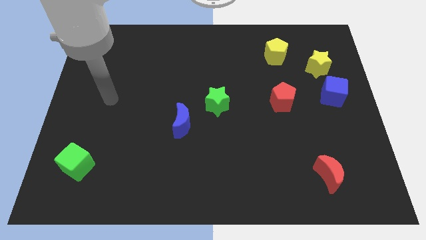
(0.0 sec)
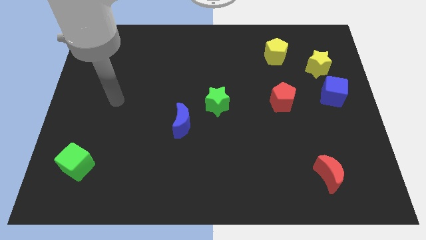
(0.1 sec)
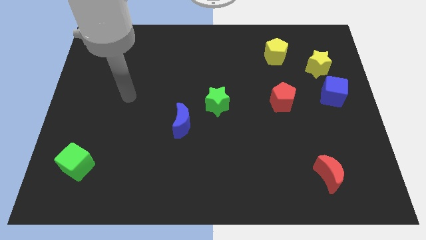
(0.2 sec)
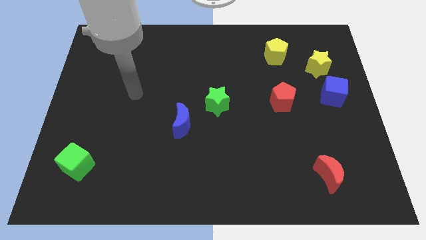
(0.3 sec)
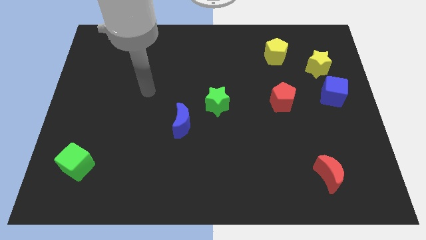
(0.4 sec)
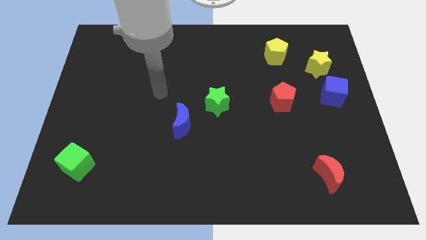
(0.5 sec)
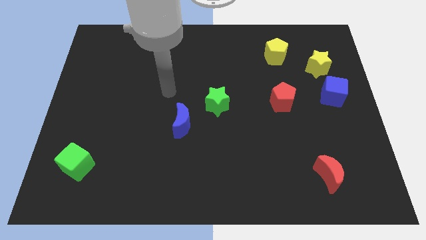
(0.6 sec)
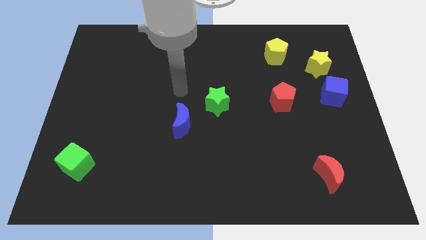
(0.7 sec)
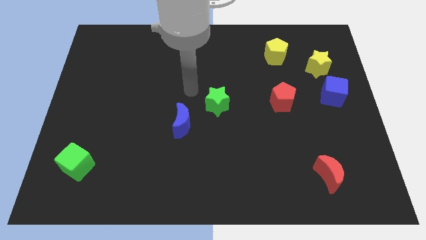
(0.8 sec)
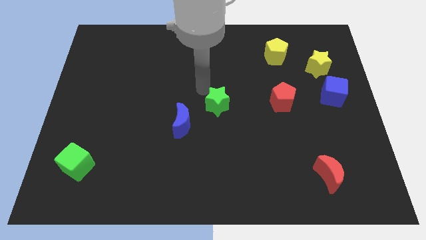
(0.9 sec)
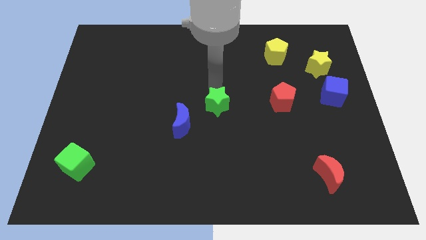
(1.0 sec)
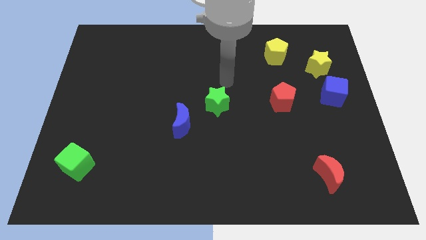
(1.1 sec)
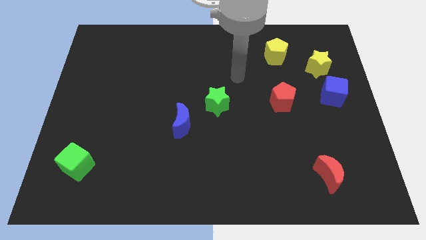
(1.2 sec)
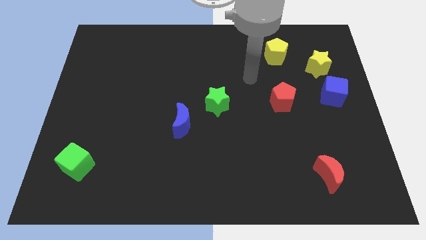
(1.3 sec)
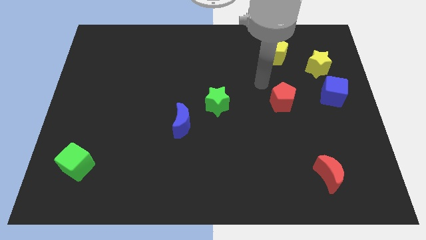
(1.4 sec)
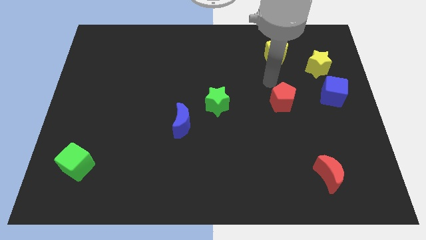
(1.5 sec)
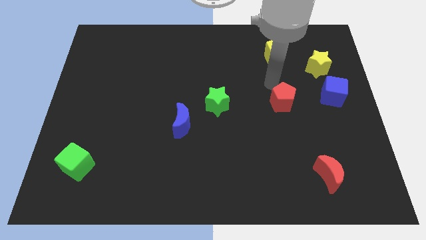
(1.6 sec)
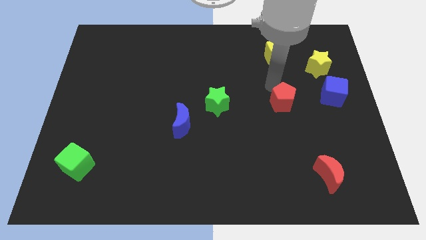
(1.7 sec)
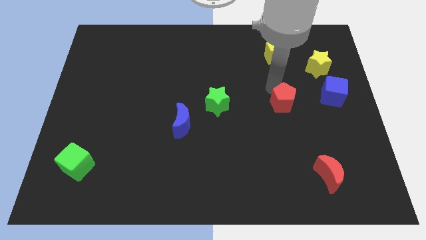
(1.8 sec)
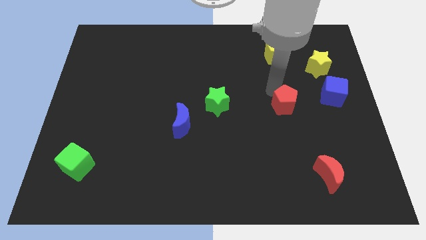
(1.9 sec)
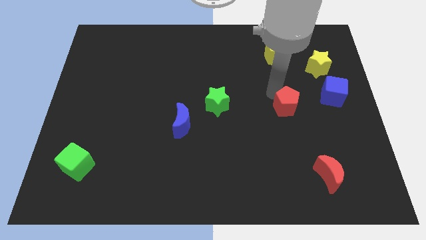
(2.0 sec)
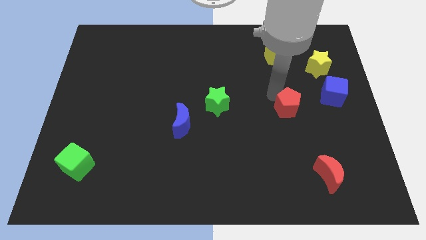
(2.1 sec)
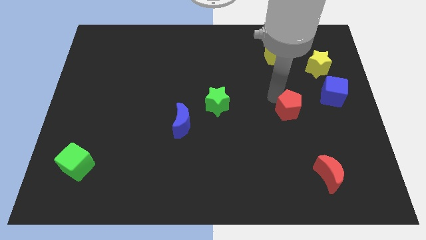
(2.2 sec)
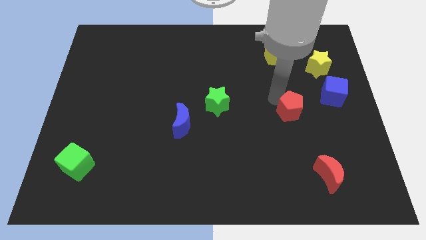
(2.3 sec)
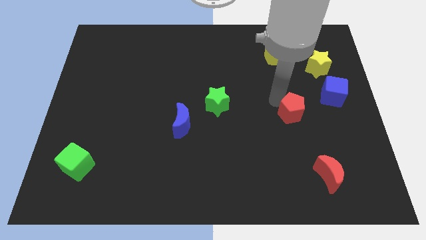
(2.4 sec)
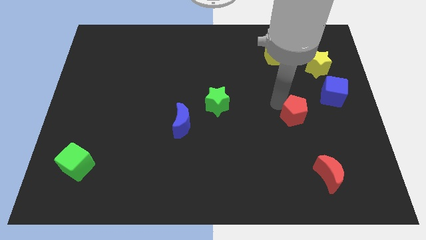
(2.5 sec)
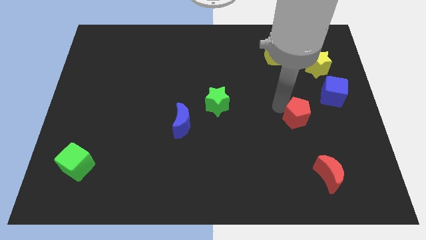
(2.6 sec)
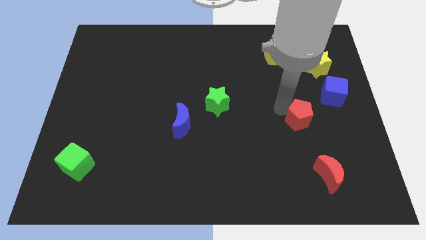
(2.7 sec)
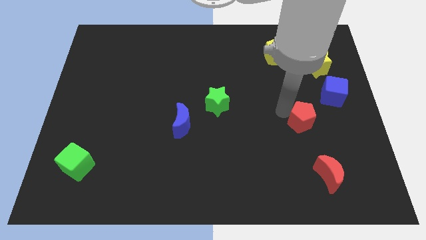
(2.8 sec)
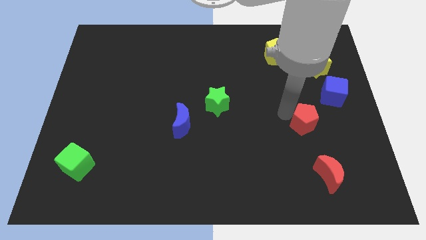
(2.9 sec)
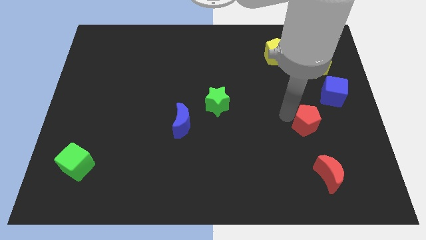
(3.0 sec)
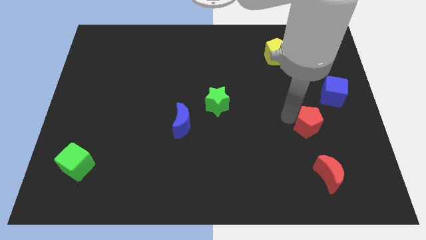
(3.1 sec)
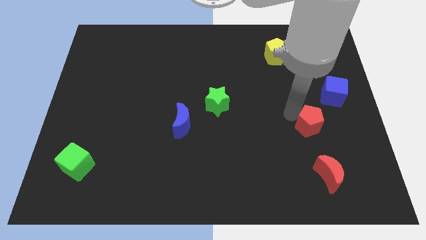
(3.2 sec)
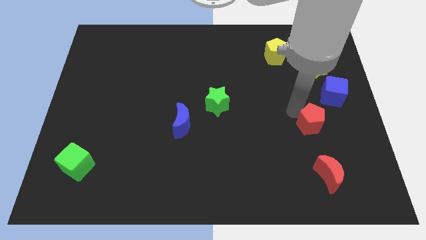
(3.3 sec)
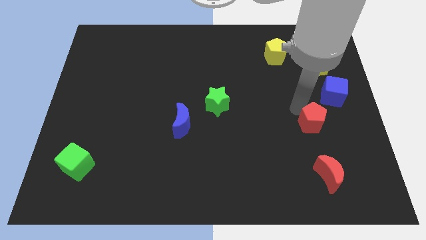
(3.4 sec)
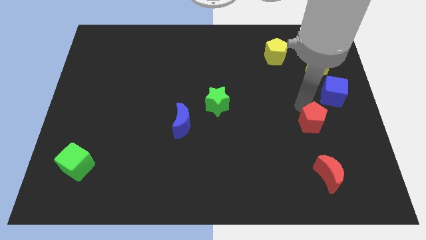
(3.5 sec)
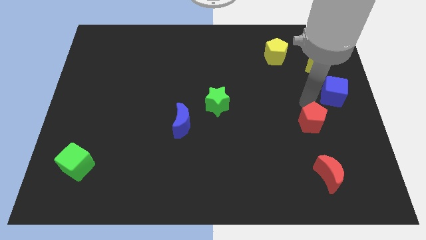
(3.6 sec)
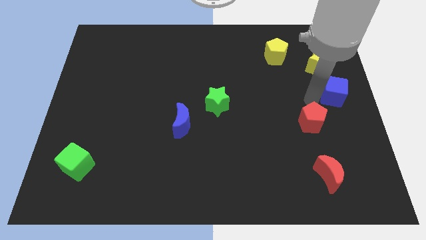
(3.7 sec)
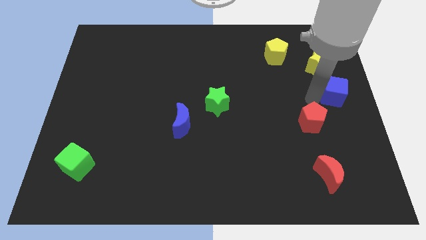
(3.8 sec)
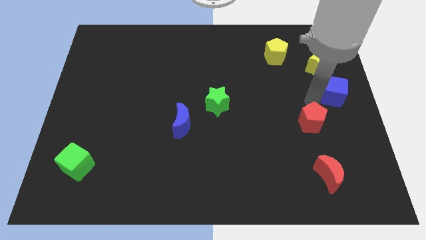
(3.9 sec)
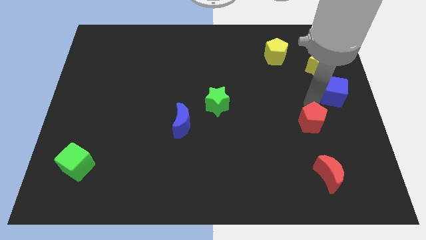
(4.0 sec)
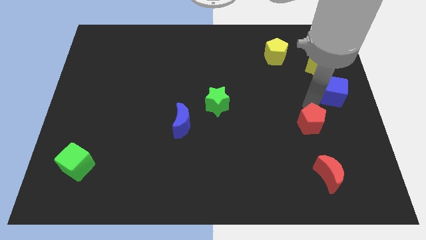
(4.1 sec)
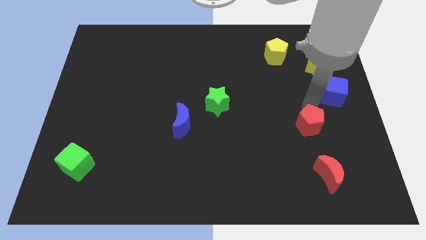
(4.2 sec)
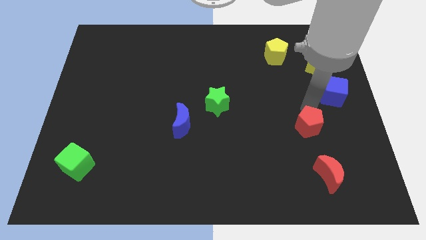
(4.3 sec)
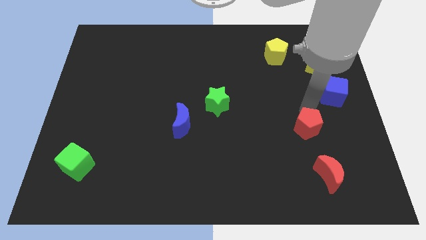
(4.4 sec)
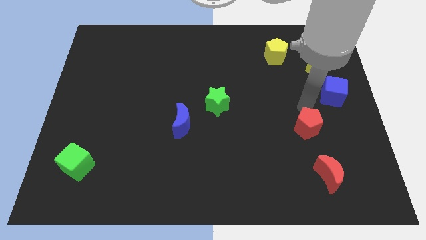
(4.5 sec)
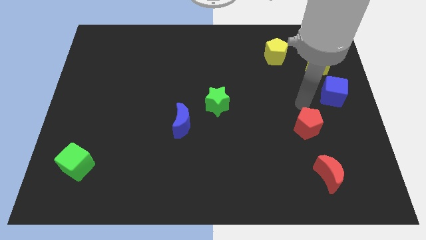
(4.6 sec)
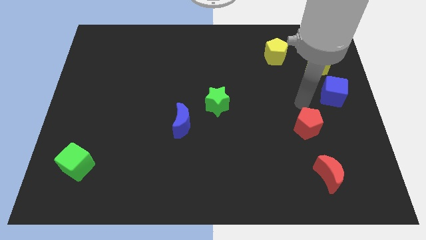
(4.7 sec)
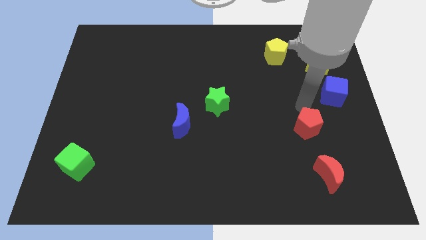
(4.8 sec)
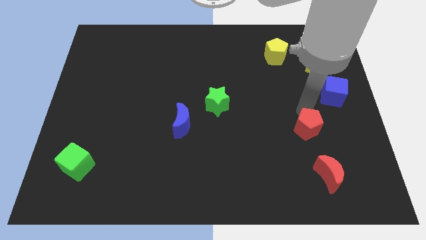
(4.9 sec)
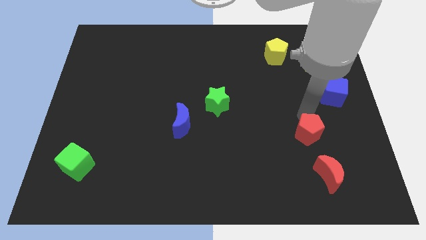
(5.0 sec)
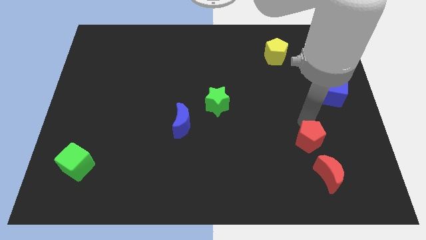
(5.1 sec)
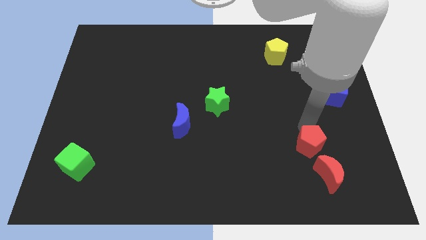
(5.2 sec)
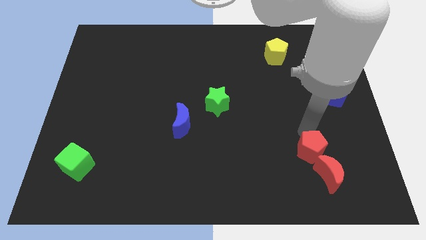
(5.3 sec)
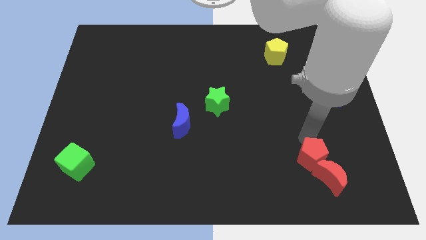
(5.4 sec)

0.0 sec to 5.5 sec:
slide the red pentagon towards the red moon

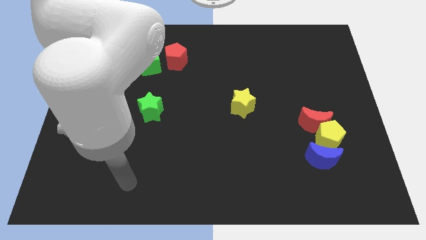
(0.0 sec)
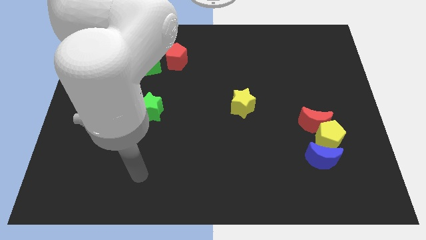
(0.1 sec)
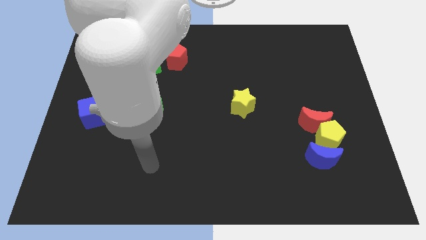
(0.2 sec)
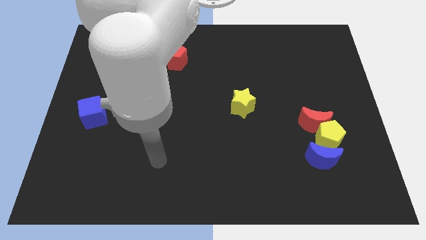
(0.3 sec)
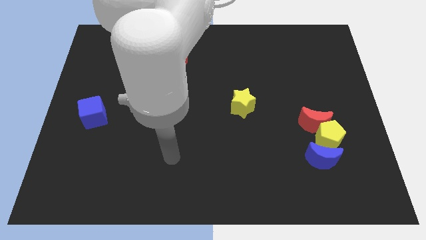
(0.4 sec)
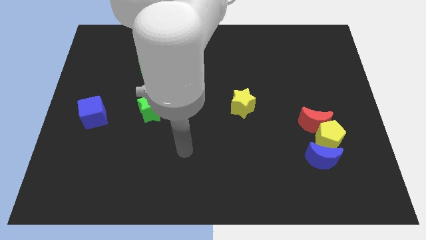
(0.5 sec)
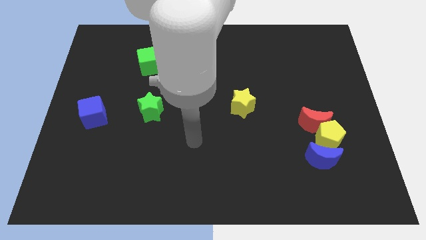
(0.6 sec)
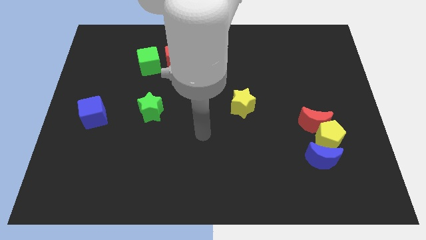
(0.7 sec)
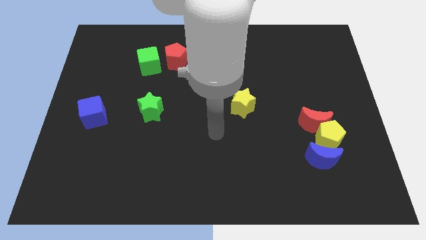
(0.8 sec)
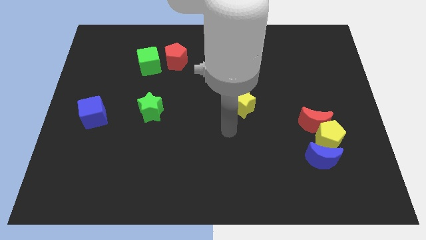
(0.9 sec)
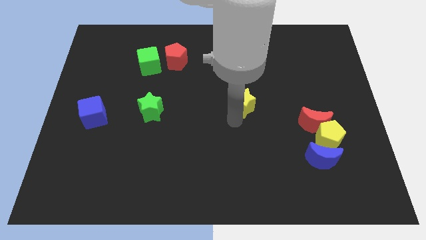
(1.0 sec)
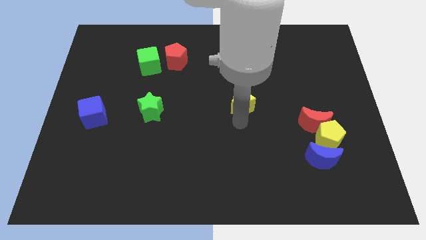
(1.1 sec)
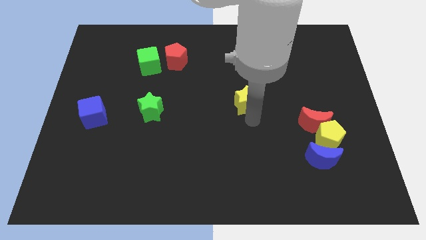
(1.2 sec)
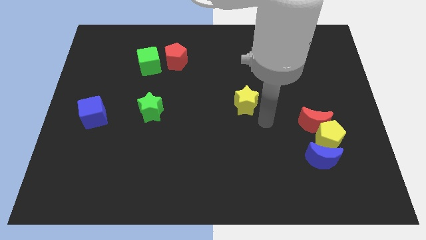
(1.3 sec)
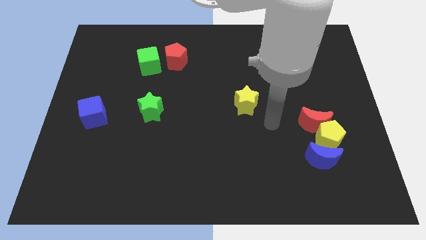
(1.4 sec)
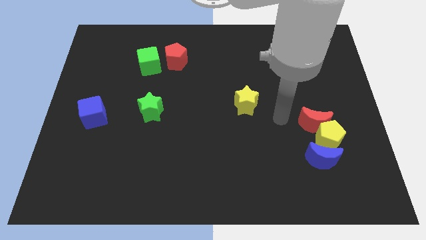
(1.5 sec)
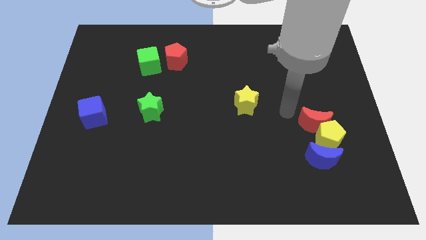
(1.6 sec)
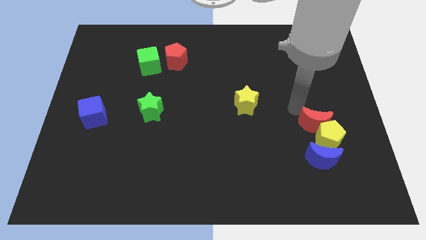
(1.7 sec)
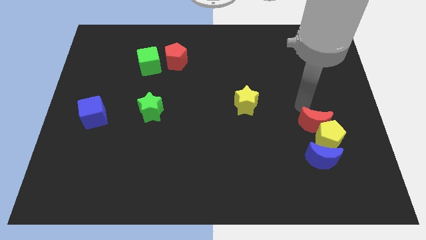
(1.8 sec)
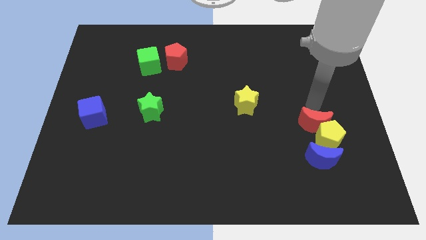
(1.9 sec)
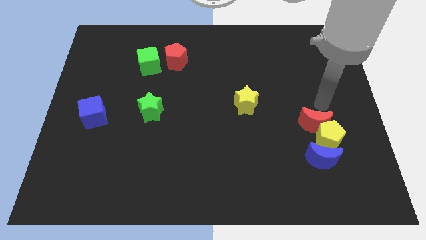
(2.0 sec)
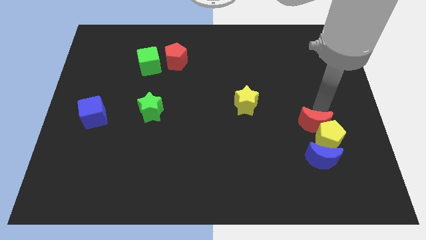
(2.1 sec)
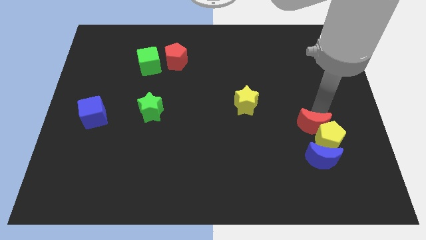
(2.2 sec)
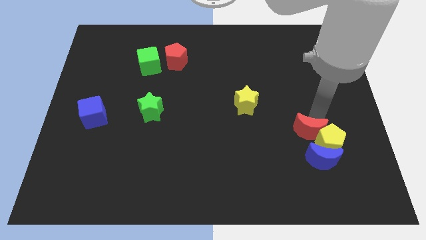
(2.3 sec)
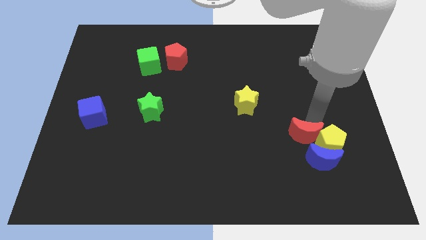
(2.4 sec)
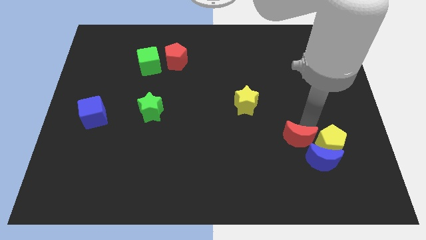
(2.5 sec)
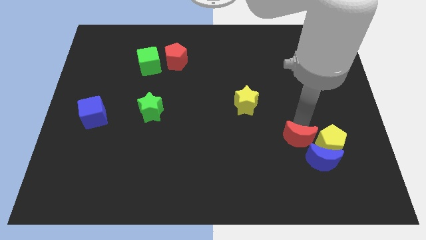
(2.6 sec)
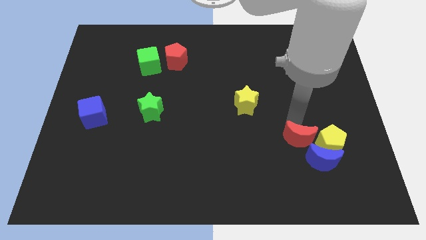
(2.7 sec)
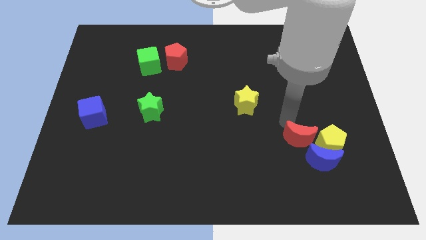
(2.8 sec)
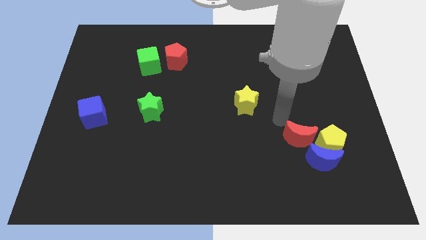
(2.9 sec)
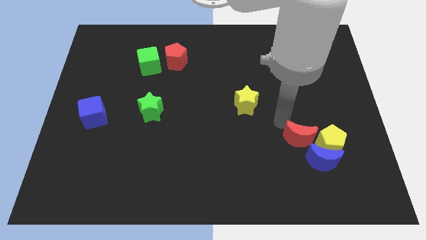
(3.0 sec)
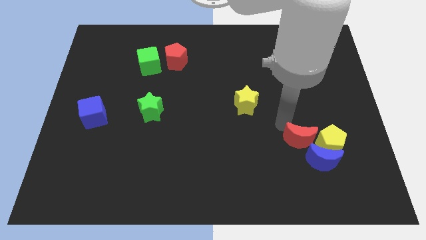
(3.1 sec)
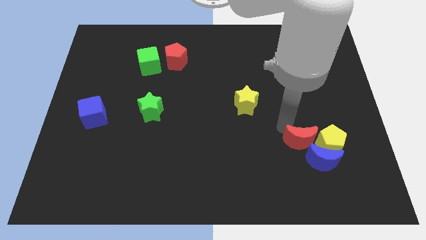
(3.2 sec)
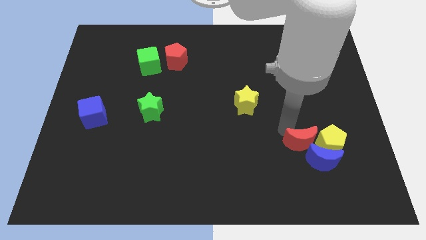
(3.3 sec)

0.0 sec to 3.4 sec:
push the red moon to the blue moon
